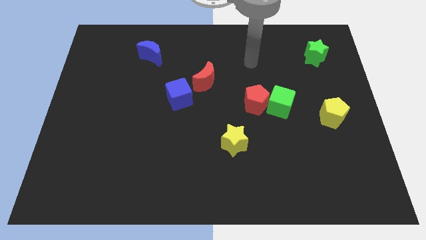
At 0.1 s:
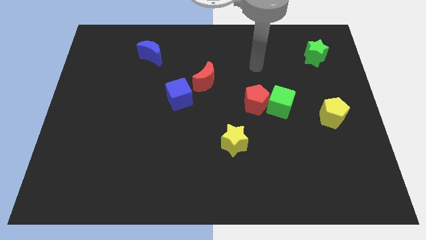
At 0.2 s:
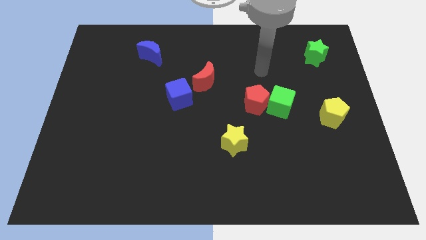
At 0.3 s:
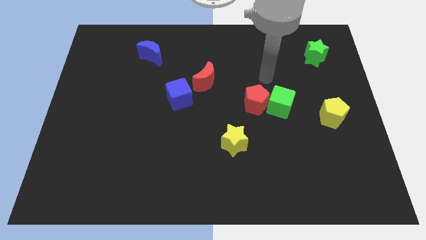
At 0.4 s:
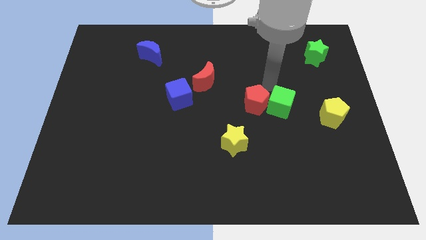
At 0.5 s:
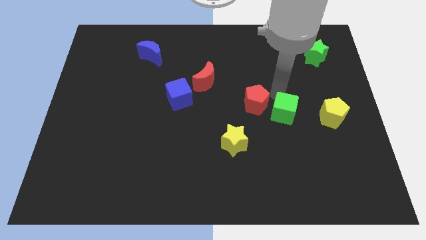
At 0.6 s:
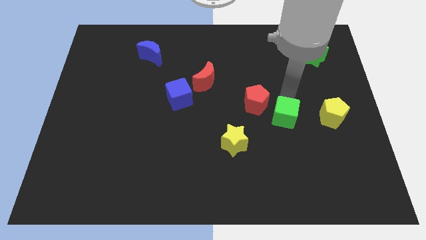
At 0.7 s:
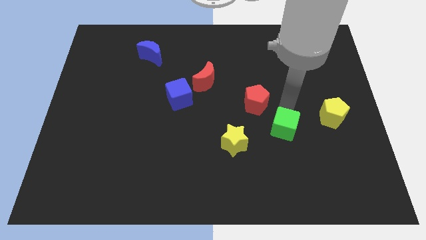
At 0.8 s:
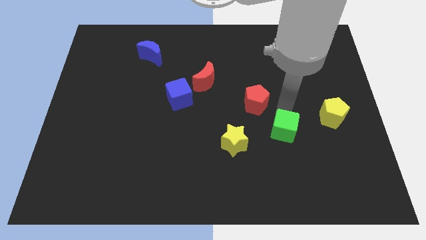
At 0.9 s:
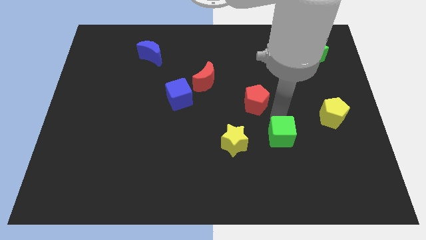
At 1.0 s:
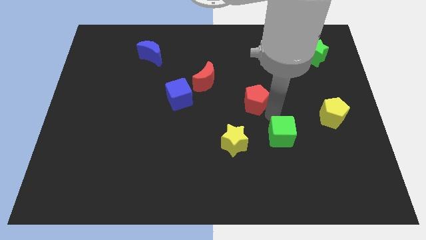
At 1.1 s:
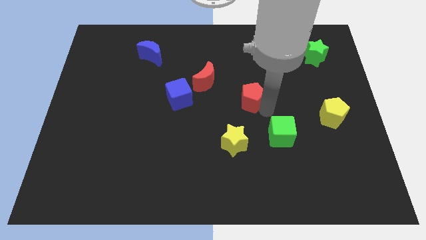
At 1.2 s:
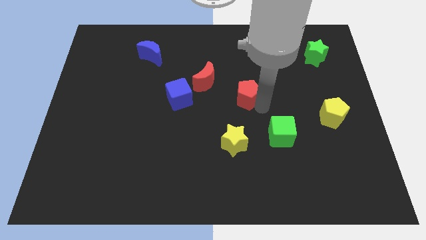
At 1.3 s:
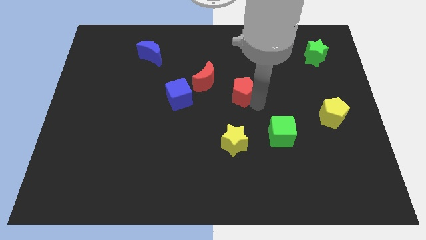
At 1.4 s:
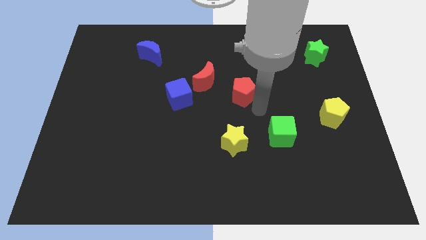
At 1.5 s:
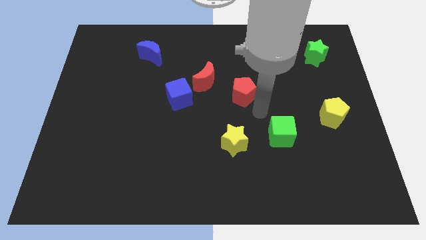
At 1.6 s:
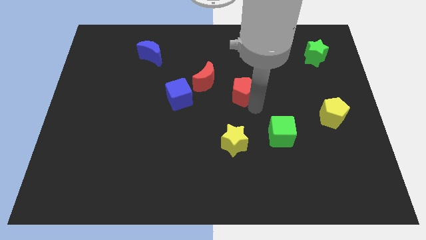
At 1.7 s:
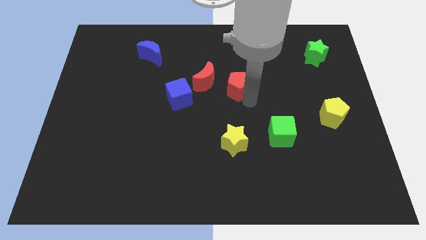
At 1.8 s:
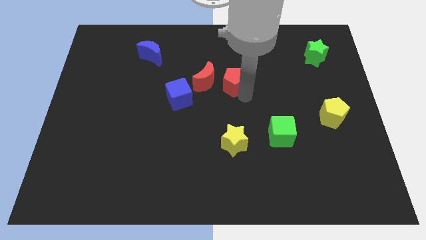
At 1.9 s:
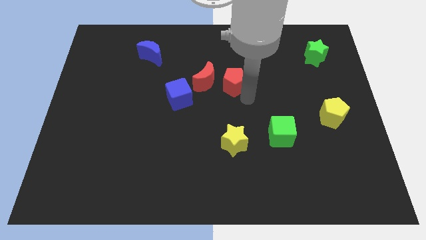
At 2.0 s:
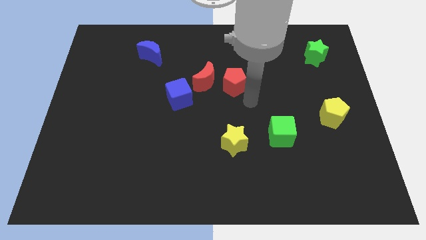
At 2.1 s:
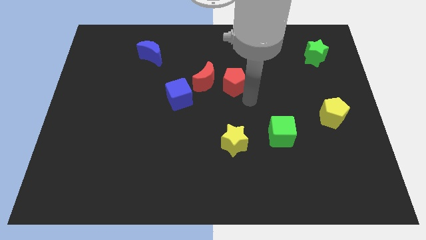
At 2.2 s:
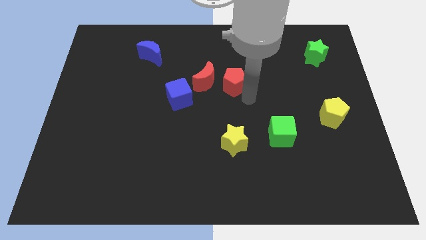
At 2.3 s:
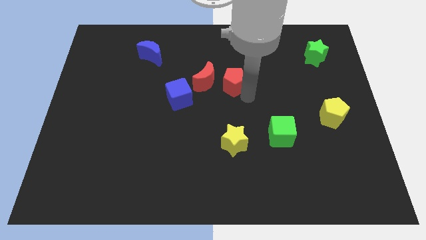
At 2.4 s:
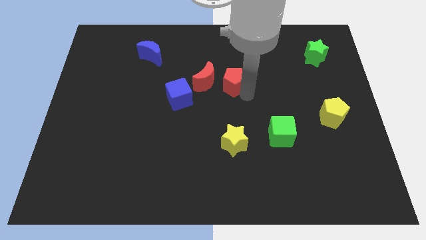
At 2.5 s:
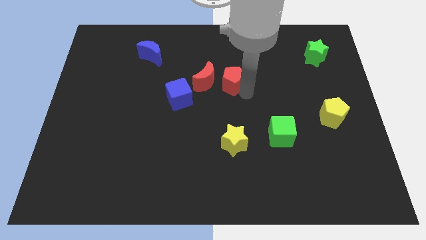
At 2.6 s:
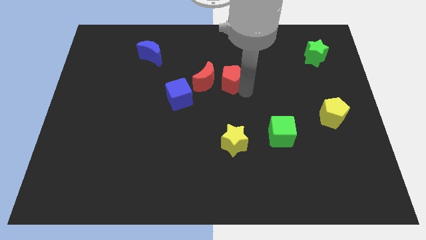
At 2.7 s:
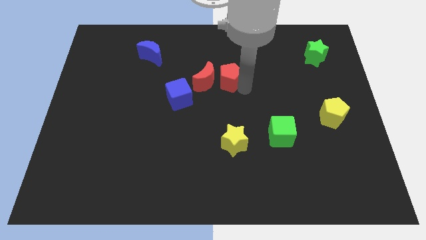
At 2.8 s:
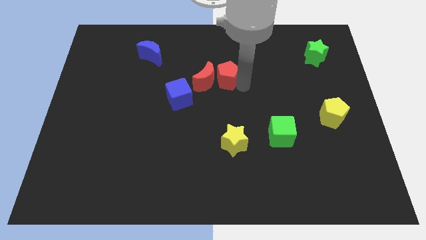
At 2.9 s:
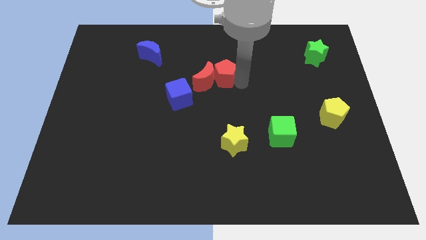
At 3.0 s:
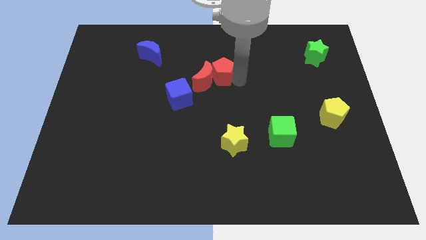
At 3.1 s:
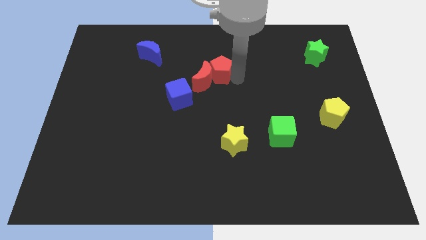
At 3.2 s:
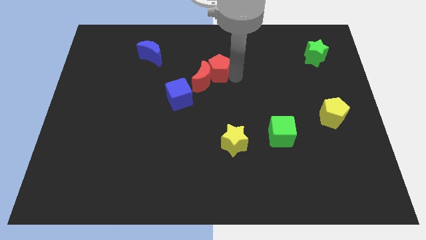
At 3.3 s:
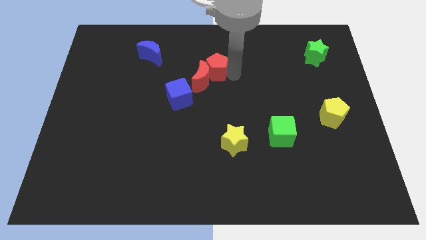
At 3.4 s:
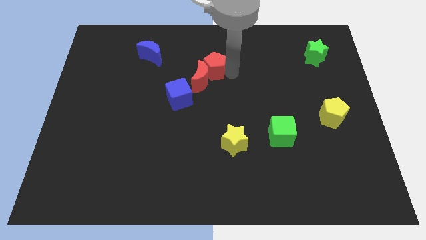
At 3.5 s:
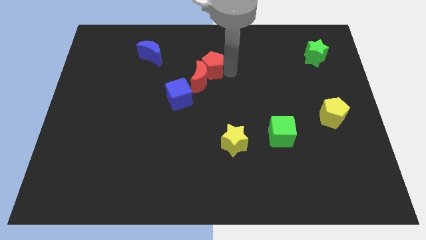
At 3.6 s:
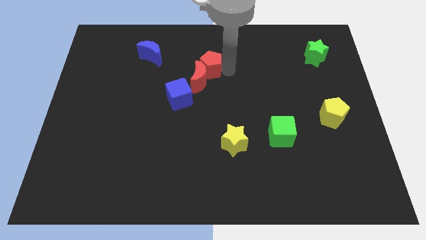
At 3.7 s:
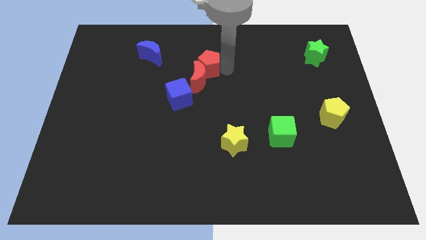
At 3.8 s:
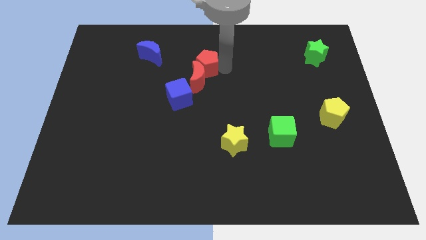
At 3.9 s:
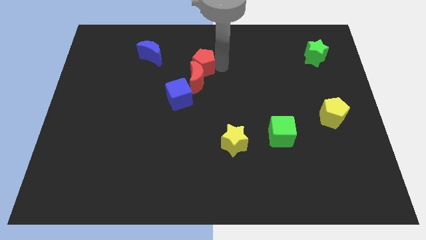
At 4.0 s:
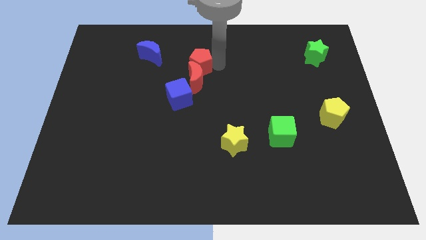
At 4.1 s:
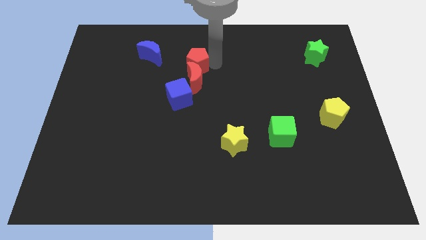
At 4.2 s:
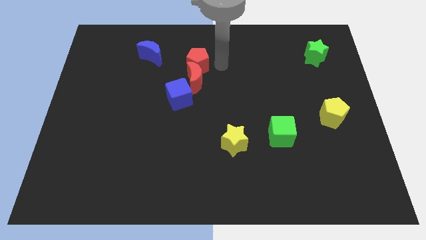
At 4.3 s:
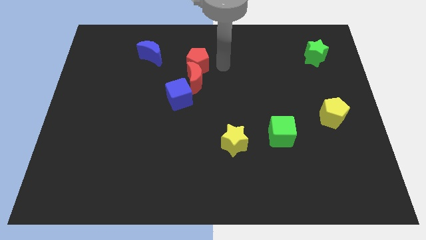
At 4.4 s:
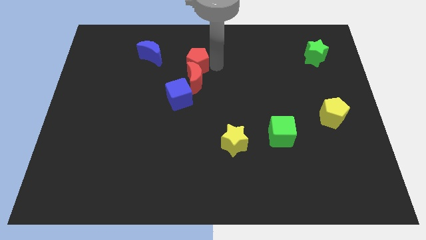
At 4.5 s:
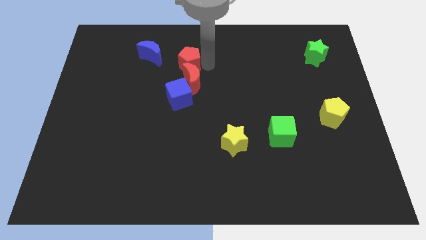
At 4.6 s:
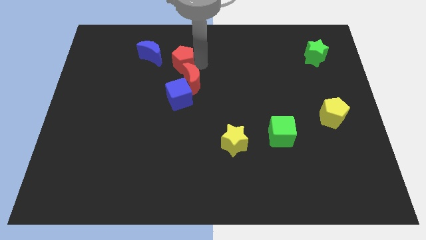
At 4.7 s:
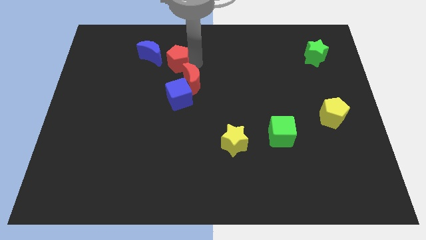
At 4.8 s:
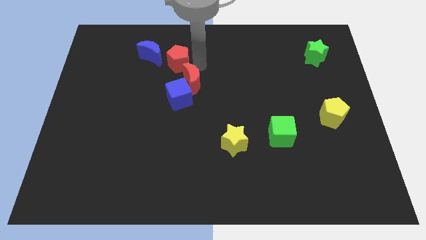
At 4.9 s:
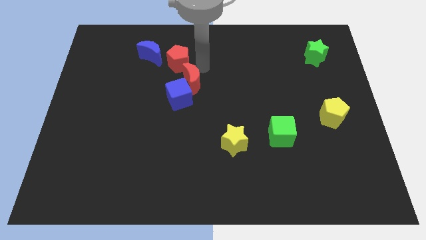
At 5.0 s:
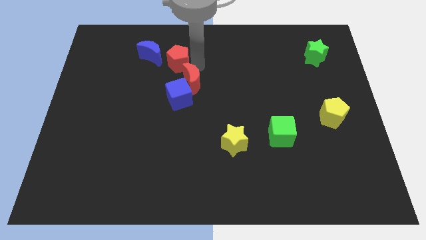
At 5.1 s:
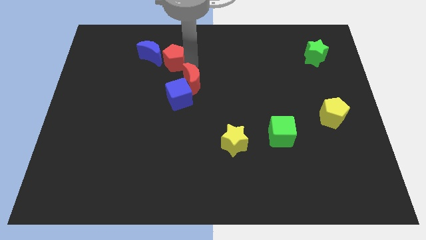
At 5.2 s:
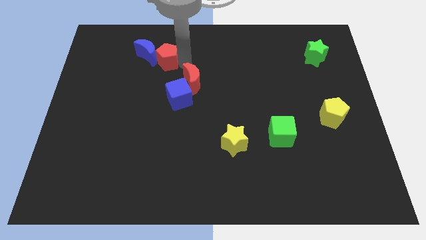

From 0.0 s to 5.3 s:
move the red pentagon towards the blue moon

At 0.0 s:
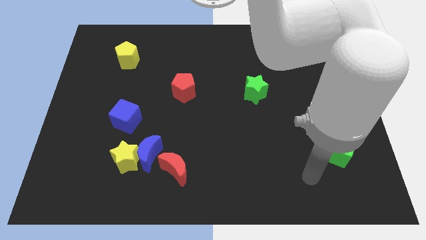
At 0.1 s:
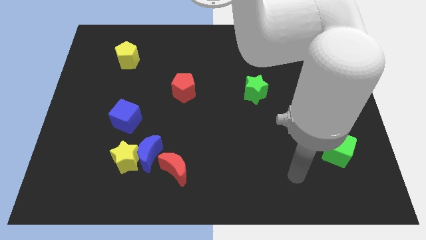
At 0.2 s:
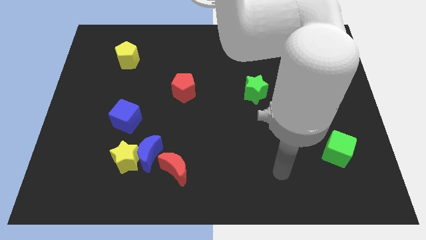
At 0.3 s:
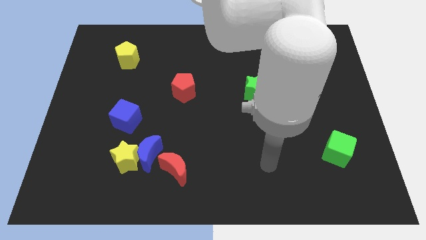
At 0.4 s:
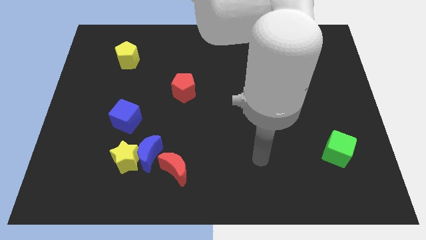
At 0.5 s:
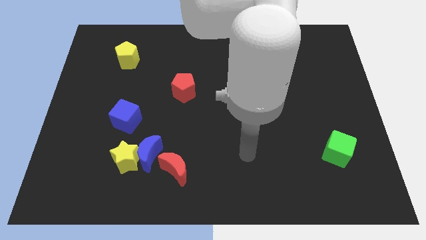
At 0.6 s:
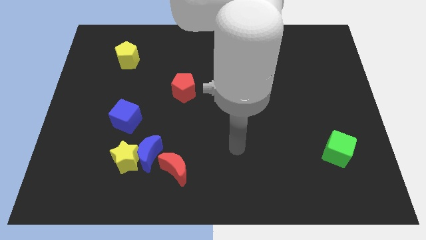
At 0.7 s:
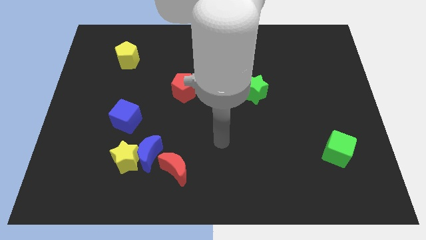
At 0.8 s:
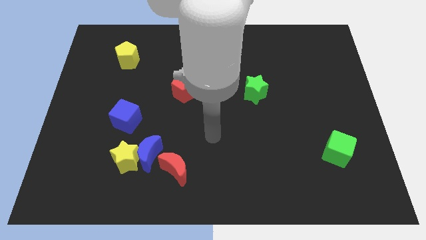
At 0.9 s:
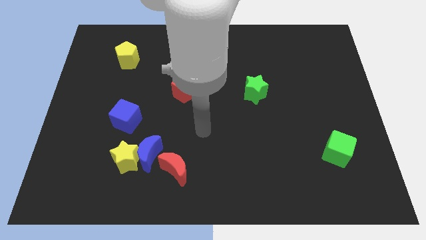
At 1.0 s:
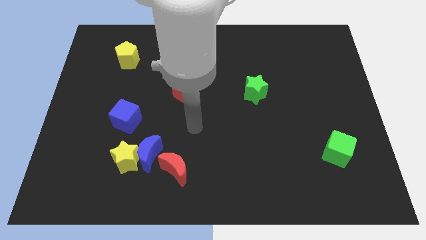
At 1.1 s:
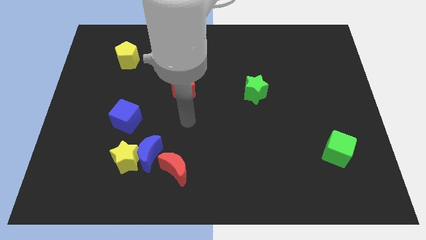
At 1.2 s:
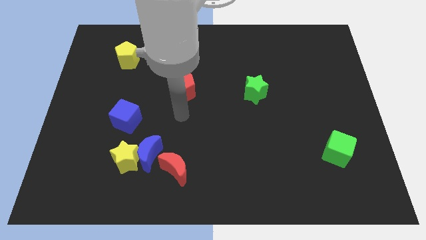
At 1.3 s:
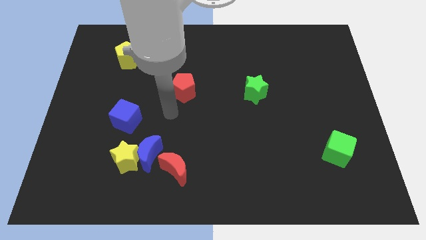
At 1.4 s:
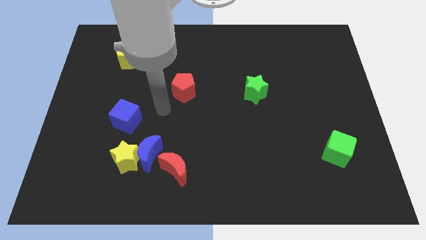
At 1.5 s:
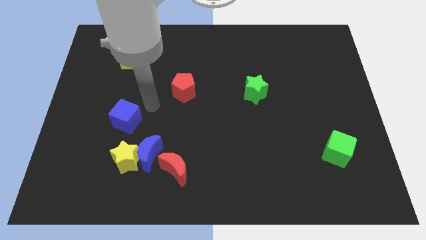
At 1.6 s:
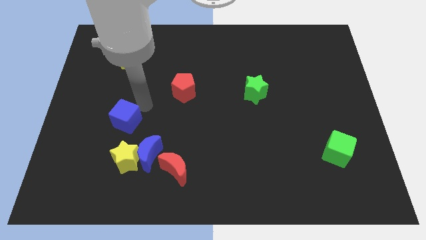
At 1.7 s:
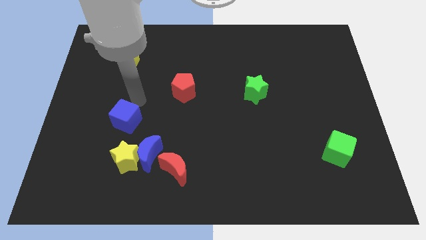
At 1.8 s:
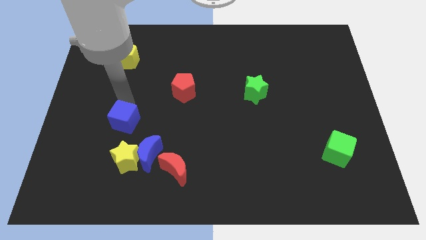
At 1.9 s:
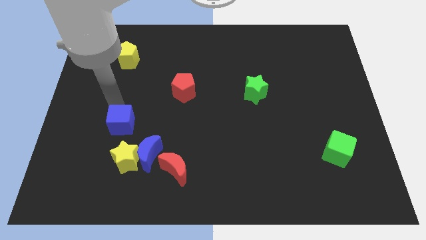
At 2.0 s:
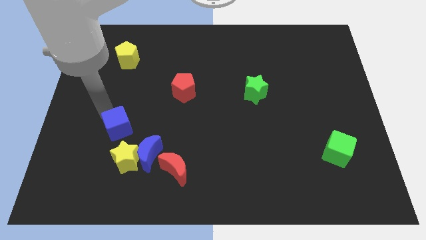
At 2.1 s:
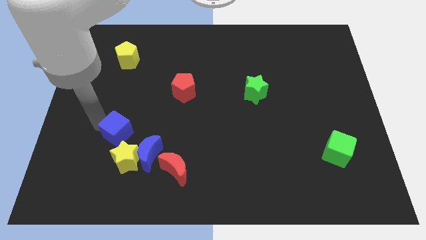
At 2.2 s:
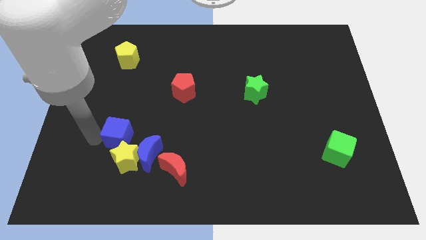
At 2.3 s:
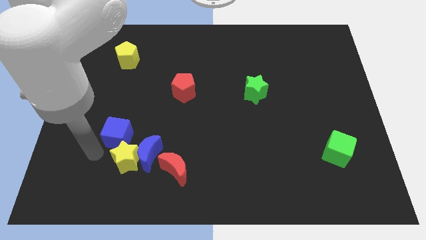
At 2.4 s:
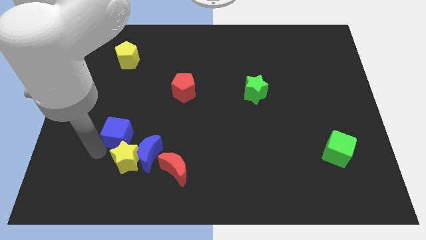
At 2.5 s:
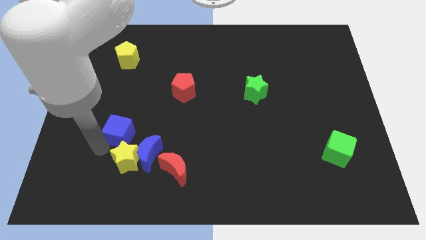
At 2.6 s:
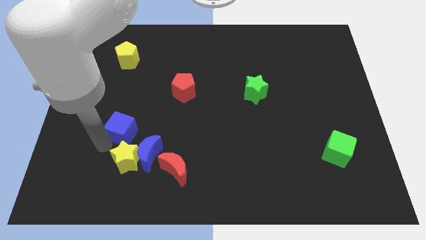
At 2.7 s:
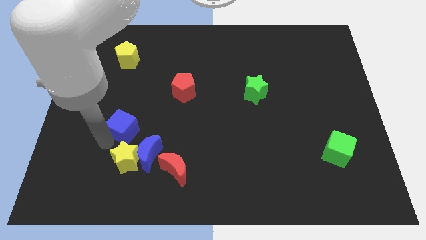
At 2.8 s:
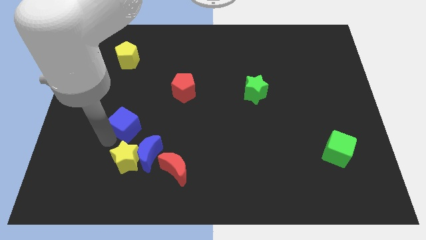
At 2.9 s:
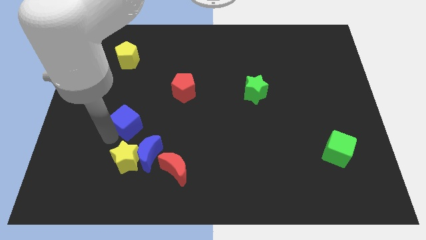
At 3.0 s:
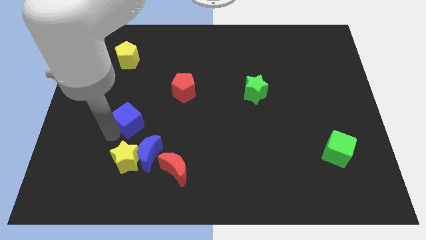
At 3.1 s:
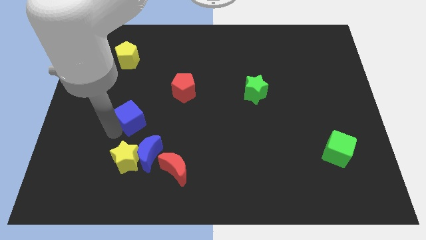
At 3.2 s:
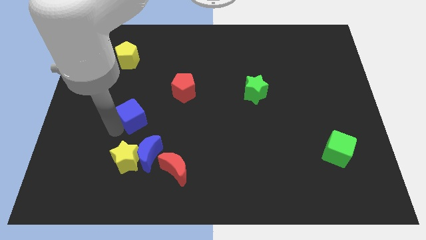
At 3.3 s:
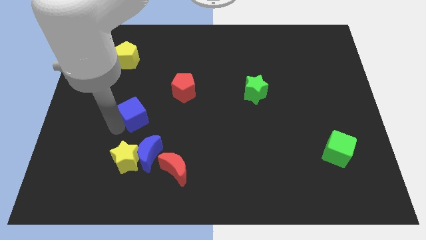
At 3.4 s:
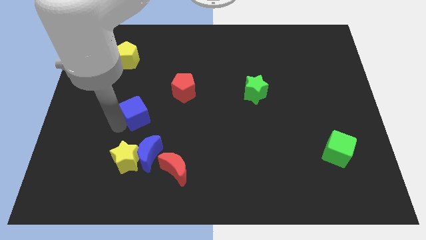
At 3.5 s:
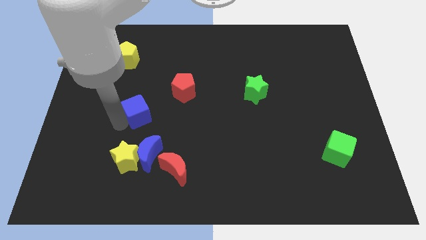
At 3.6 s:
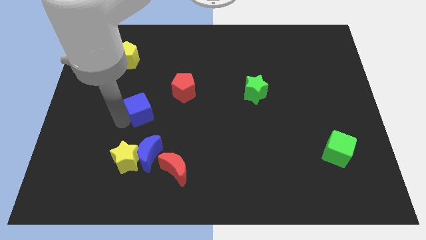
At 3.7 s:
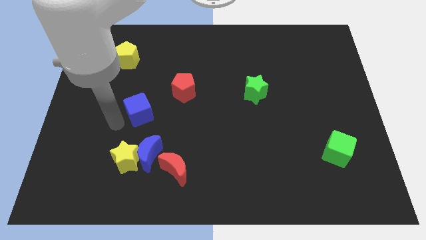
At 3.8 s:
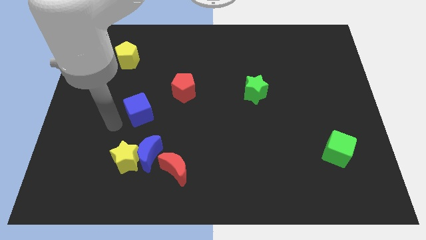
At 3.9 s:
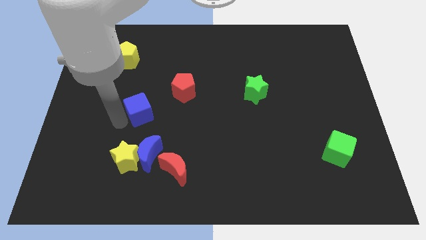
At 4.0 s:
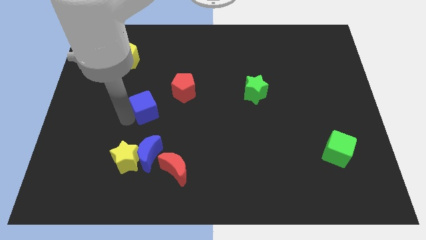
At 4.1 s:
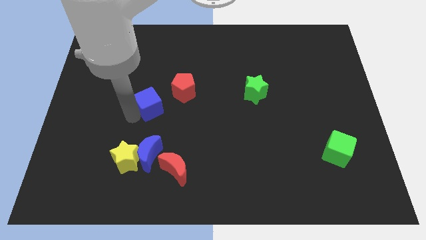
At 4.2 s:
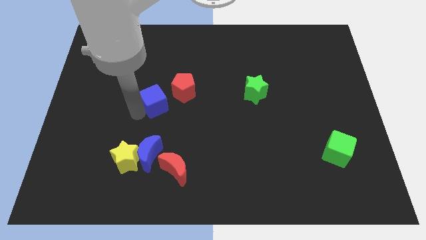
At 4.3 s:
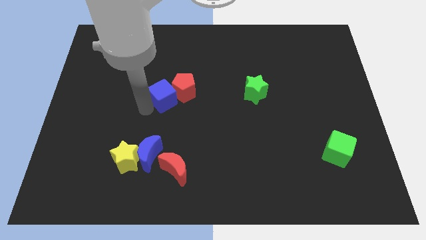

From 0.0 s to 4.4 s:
move the blue cube to the red pentagon
